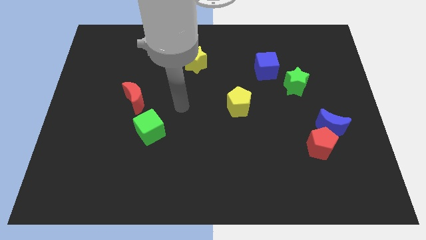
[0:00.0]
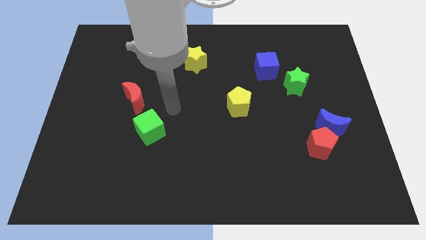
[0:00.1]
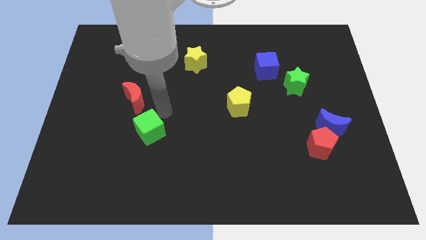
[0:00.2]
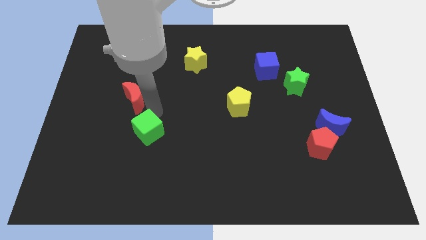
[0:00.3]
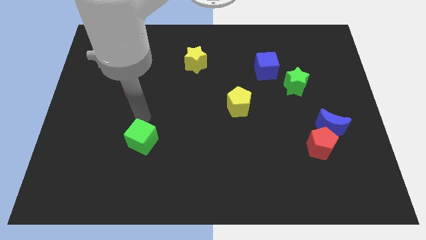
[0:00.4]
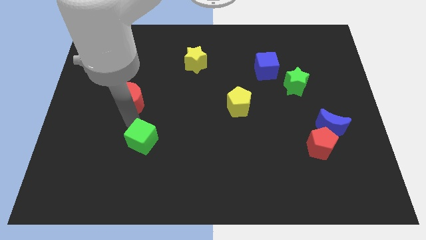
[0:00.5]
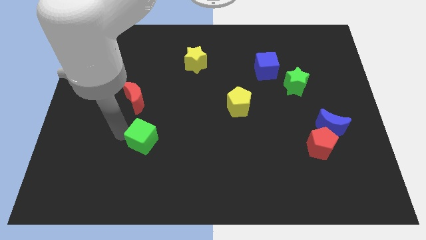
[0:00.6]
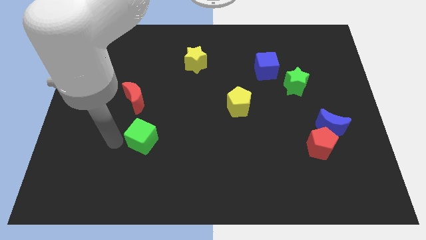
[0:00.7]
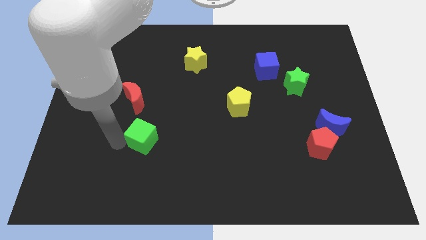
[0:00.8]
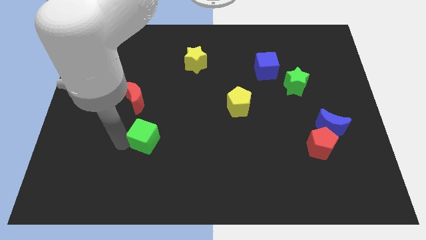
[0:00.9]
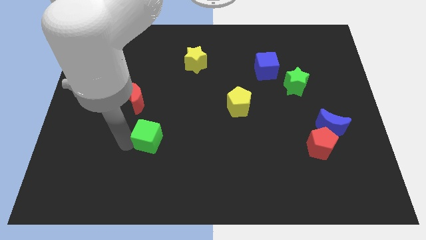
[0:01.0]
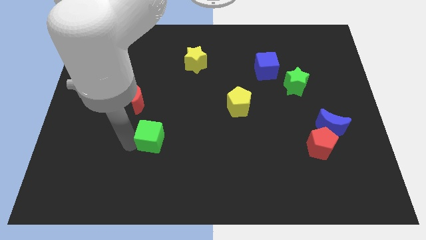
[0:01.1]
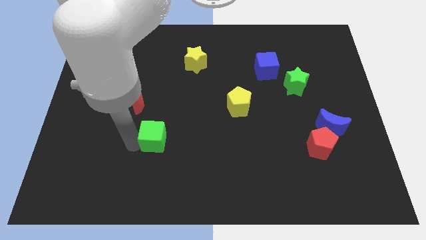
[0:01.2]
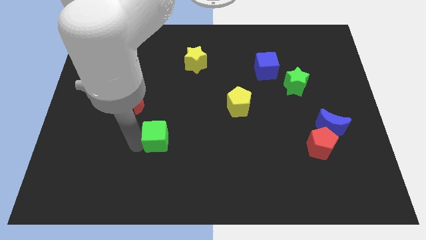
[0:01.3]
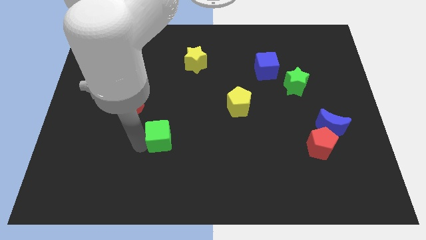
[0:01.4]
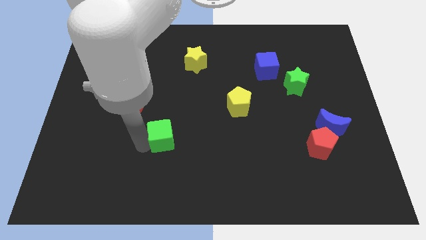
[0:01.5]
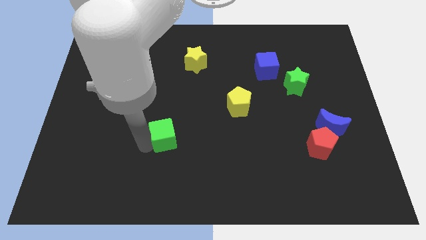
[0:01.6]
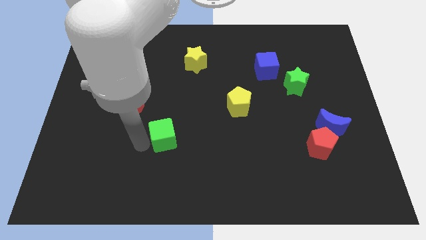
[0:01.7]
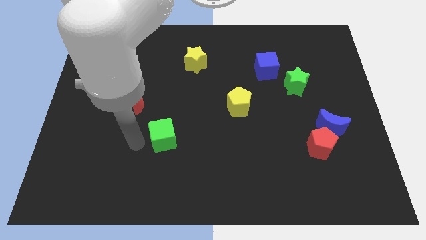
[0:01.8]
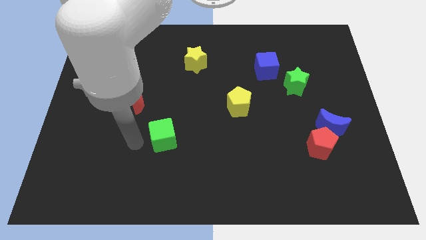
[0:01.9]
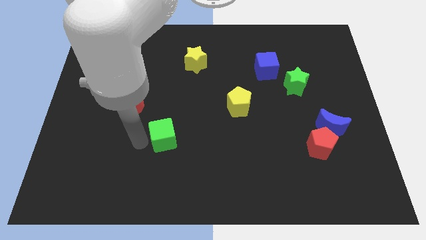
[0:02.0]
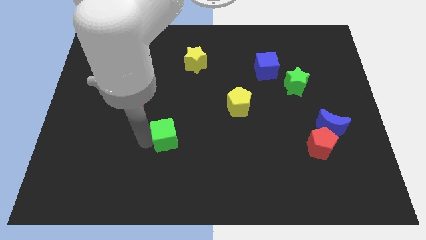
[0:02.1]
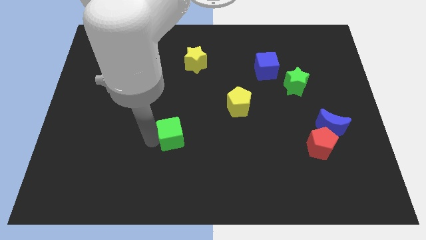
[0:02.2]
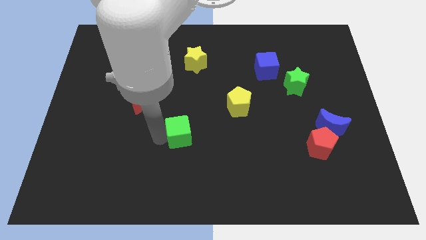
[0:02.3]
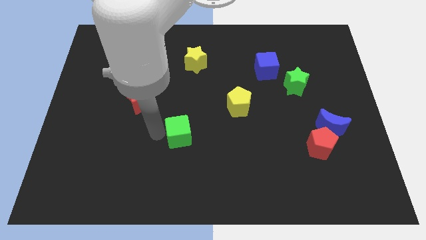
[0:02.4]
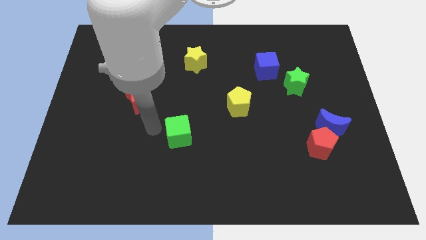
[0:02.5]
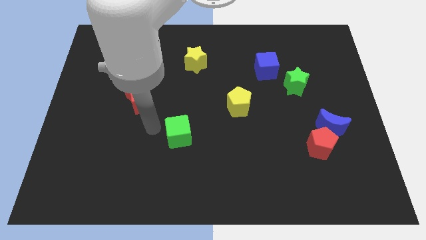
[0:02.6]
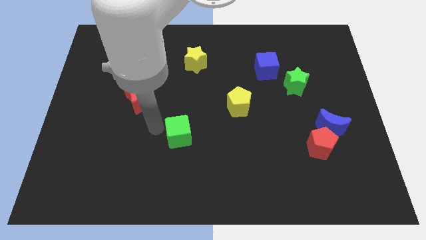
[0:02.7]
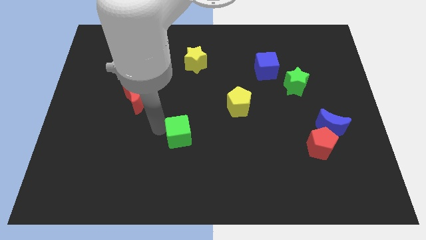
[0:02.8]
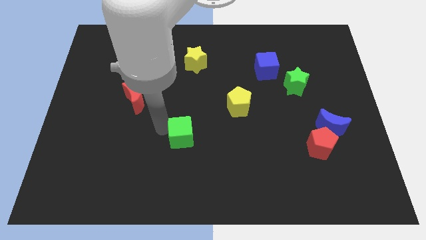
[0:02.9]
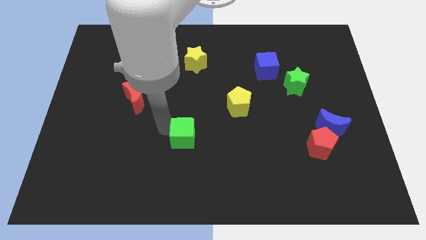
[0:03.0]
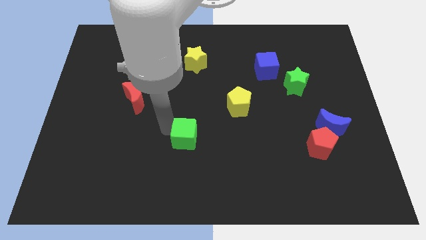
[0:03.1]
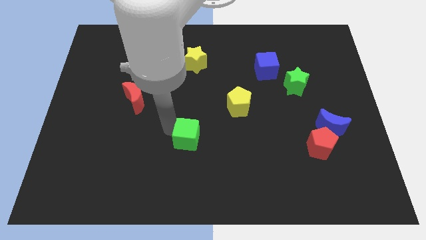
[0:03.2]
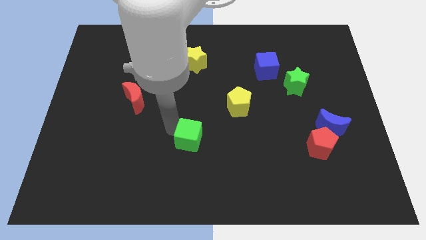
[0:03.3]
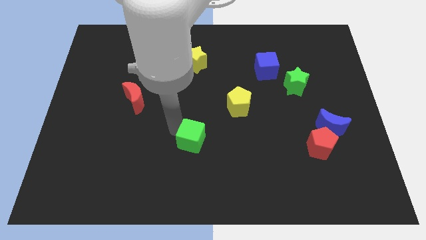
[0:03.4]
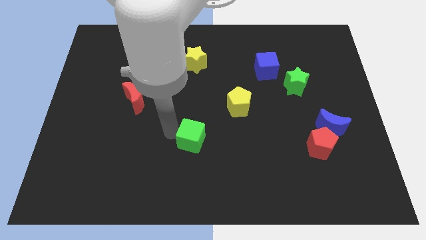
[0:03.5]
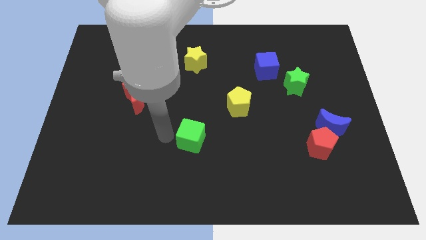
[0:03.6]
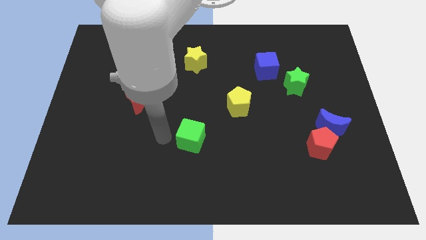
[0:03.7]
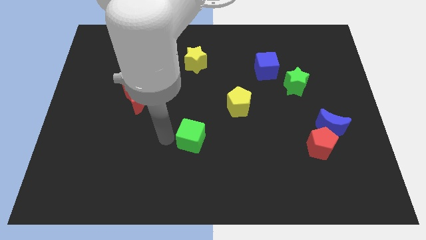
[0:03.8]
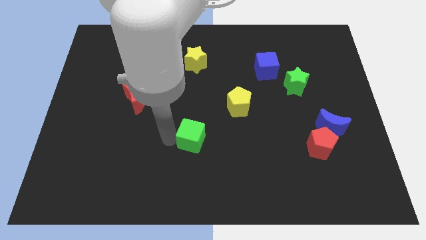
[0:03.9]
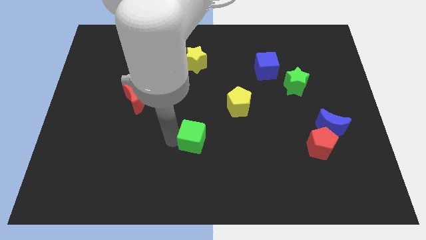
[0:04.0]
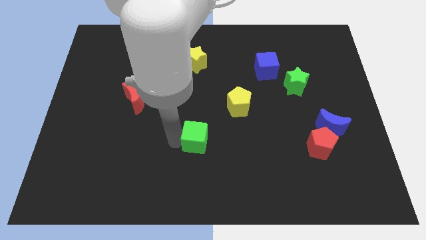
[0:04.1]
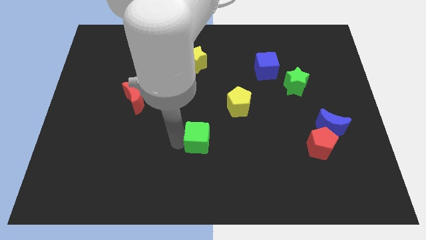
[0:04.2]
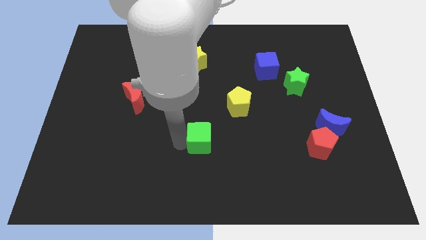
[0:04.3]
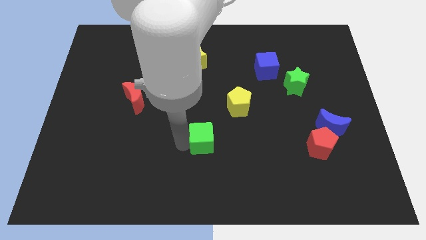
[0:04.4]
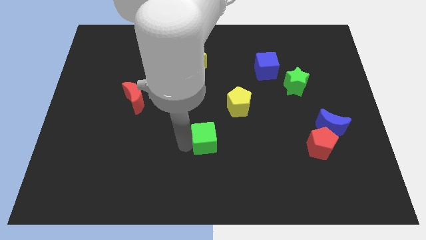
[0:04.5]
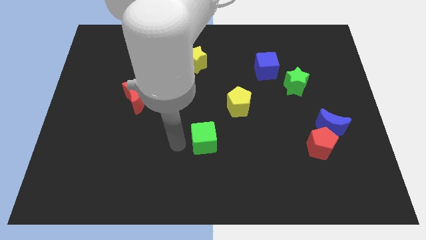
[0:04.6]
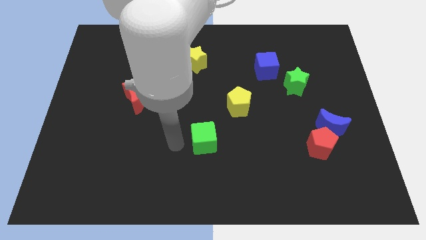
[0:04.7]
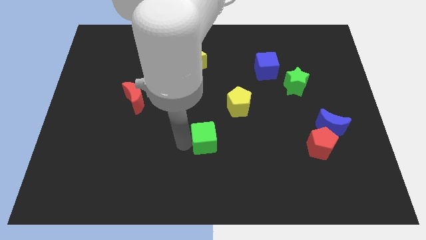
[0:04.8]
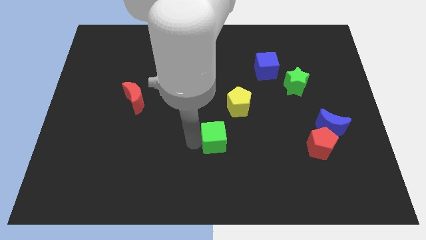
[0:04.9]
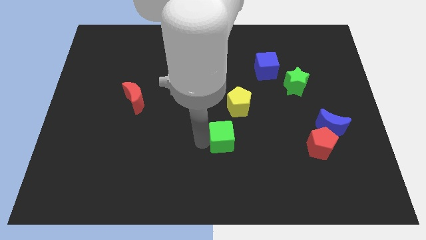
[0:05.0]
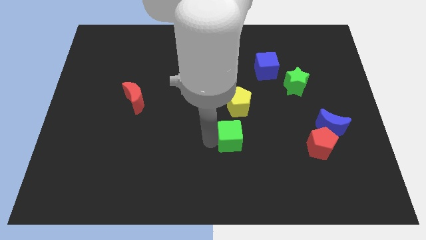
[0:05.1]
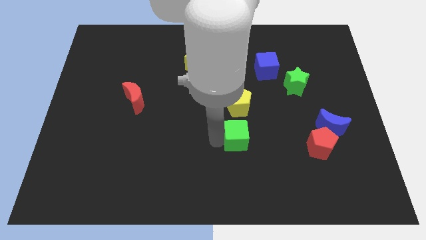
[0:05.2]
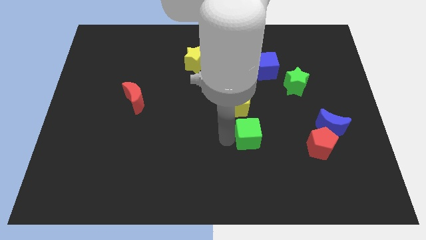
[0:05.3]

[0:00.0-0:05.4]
move the green cube right

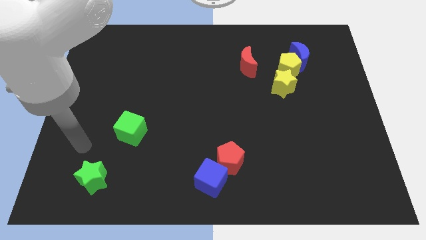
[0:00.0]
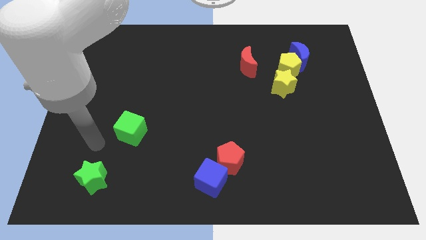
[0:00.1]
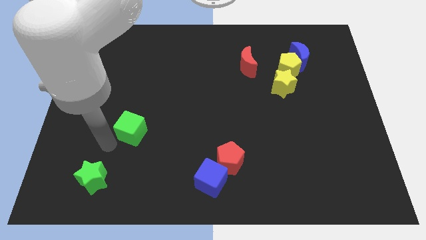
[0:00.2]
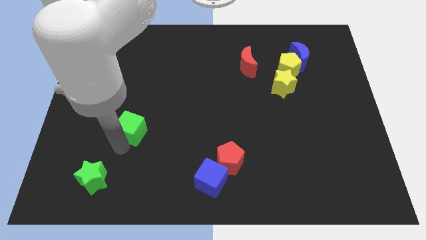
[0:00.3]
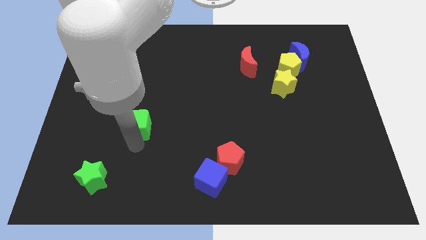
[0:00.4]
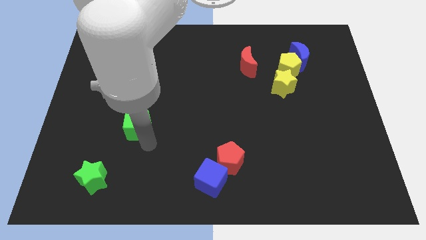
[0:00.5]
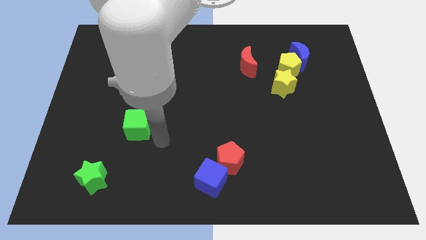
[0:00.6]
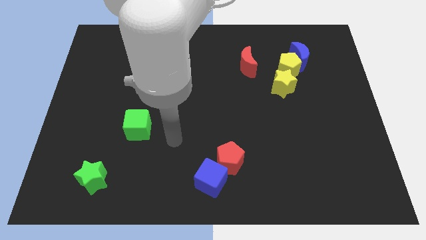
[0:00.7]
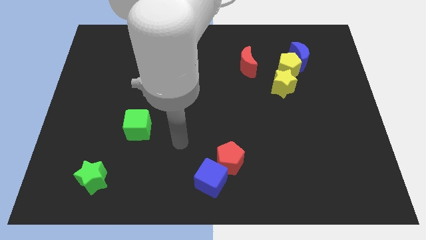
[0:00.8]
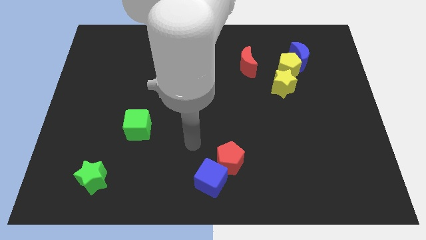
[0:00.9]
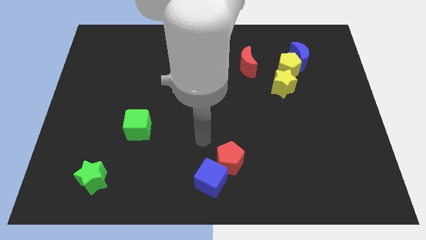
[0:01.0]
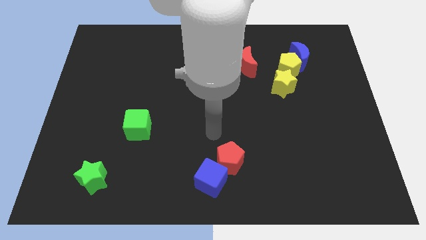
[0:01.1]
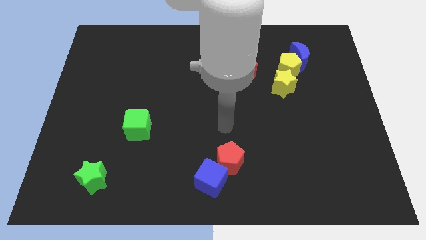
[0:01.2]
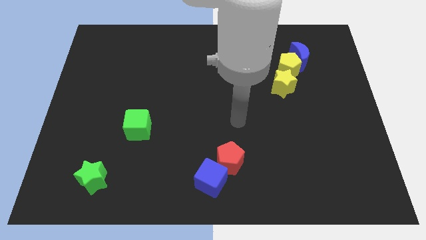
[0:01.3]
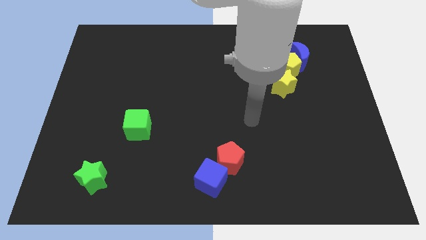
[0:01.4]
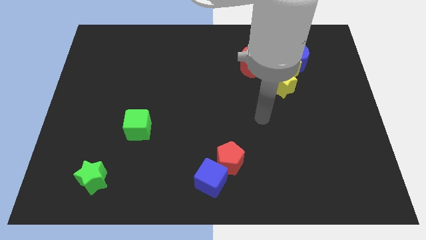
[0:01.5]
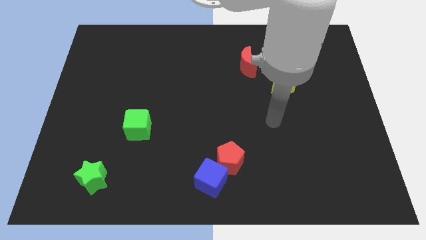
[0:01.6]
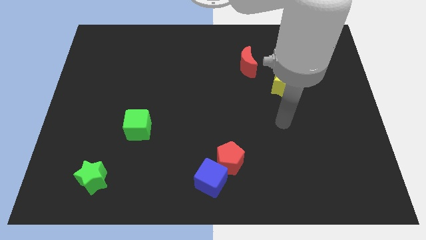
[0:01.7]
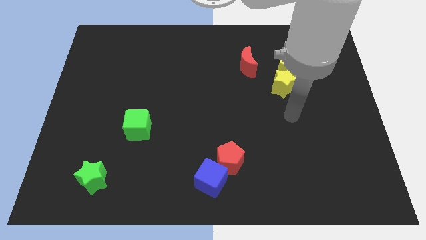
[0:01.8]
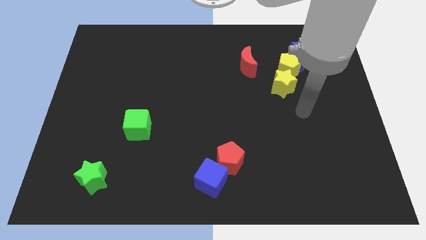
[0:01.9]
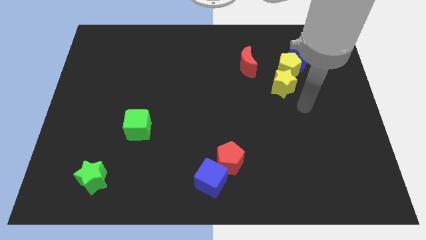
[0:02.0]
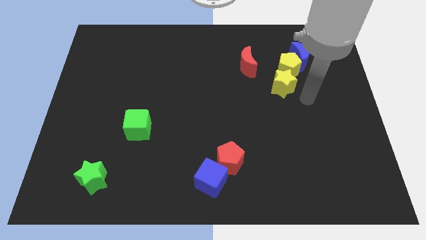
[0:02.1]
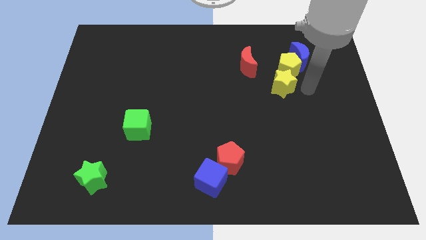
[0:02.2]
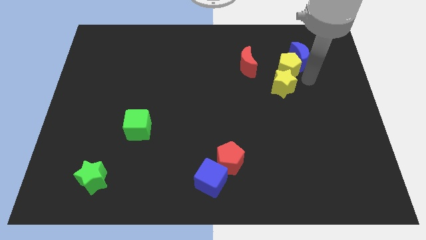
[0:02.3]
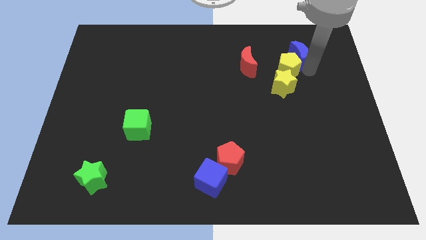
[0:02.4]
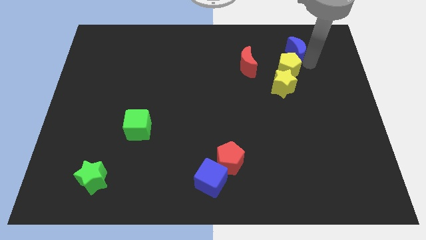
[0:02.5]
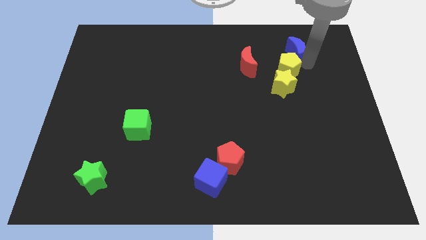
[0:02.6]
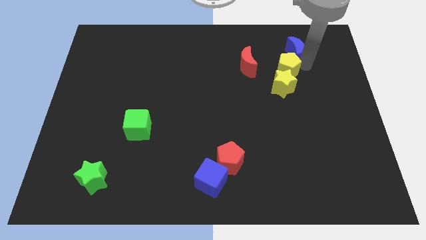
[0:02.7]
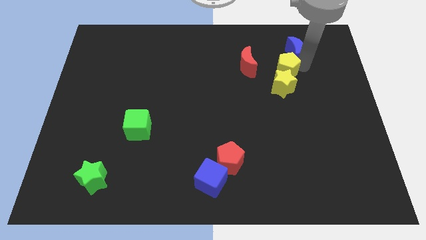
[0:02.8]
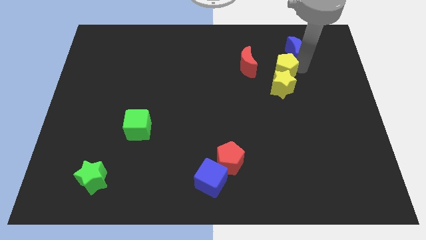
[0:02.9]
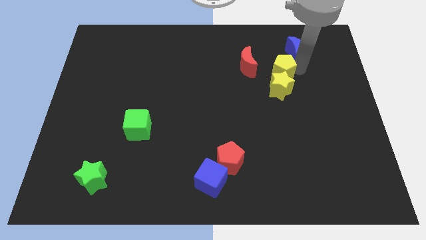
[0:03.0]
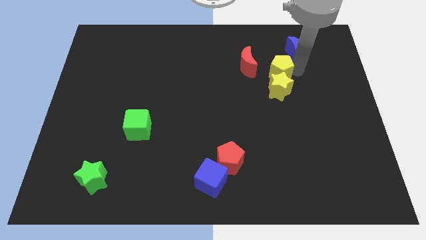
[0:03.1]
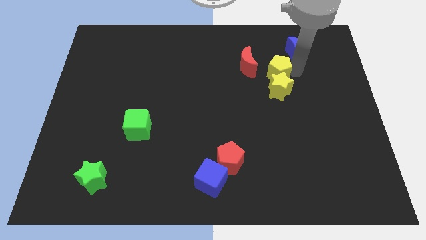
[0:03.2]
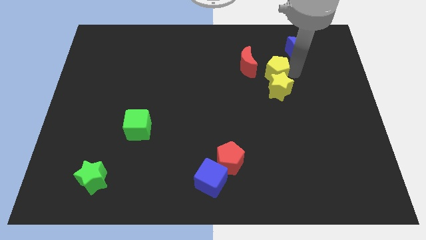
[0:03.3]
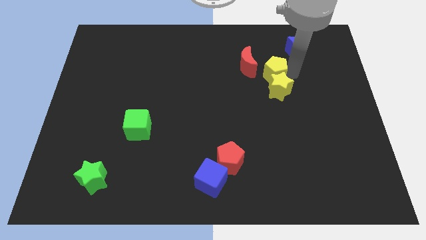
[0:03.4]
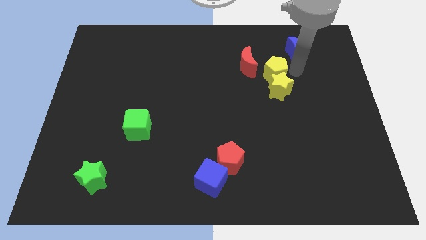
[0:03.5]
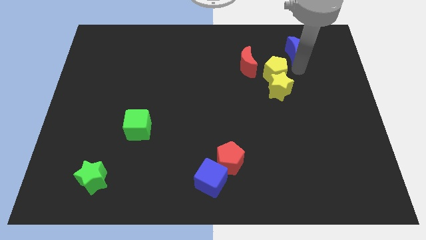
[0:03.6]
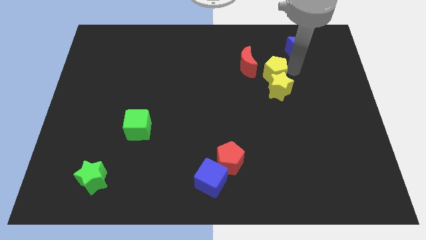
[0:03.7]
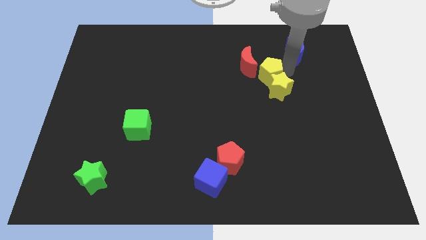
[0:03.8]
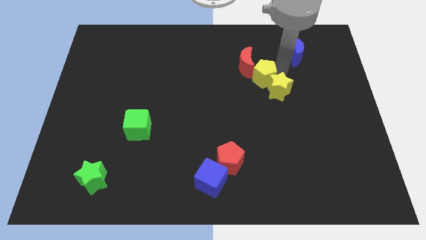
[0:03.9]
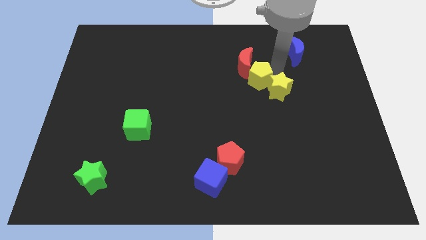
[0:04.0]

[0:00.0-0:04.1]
push the yellow pentagon left somewhat
